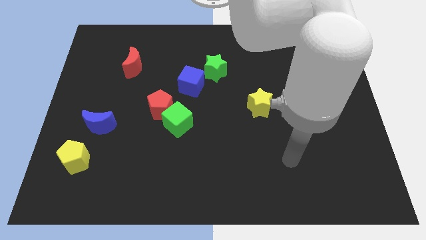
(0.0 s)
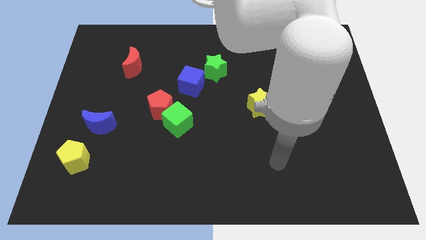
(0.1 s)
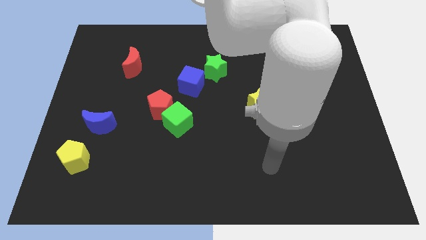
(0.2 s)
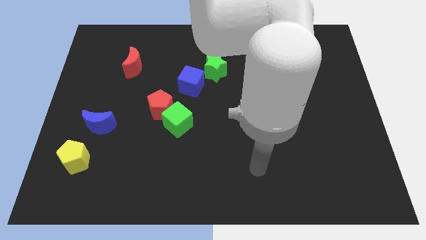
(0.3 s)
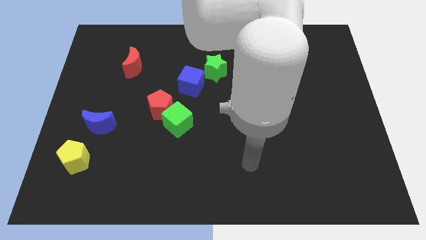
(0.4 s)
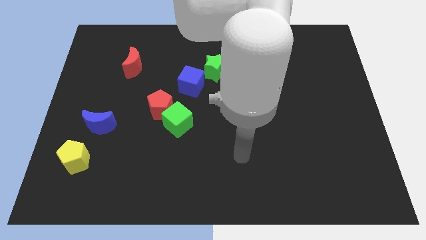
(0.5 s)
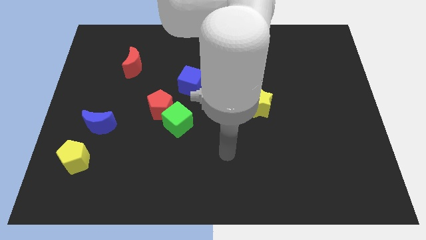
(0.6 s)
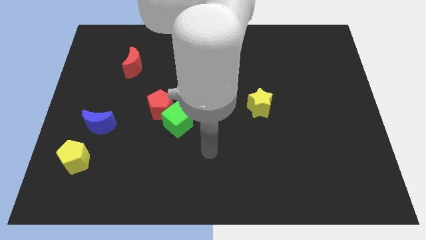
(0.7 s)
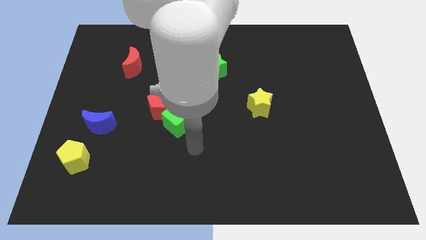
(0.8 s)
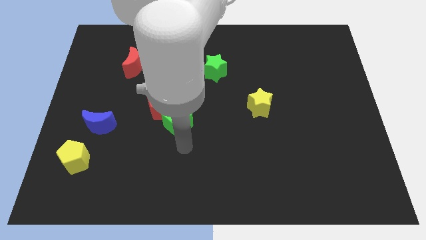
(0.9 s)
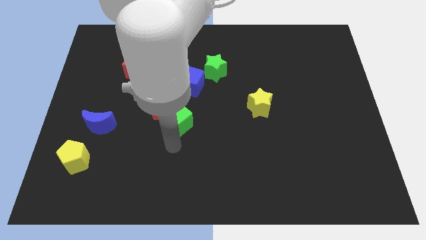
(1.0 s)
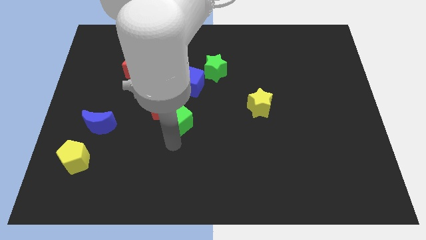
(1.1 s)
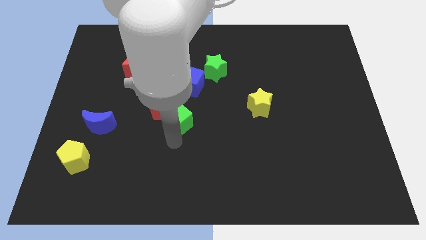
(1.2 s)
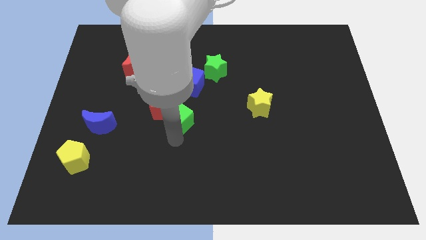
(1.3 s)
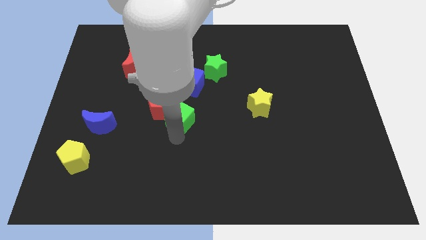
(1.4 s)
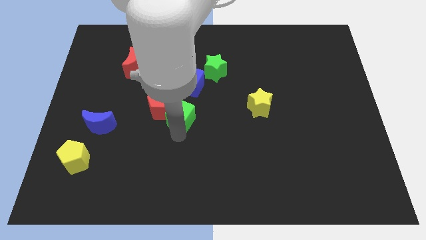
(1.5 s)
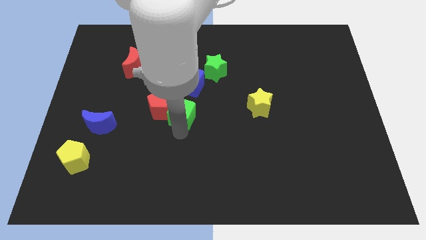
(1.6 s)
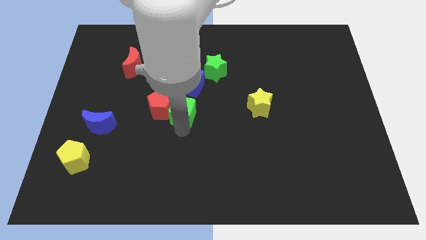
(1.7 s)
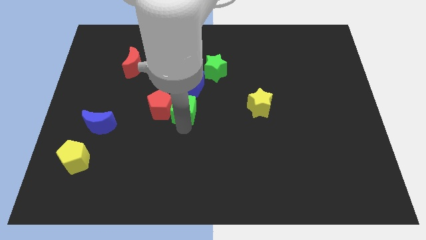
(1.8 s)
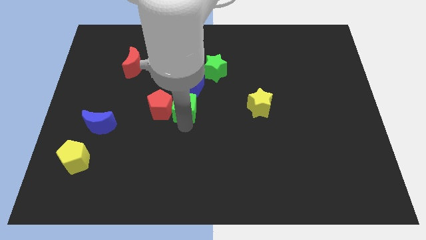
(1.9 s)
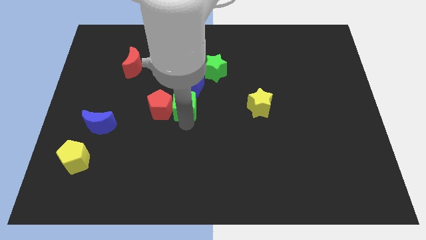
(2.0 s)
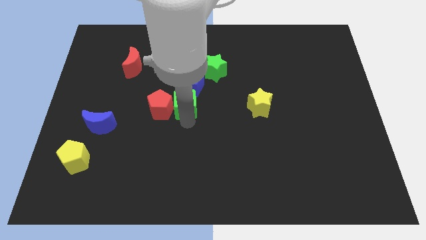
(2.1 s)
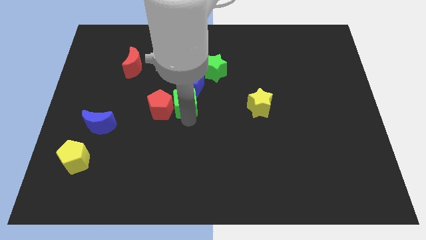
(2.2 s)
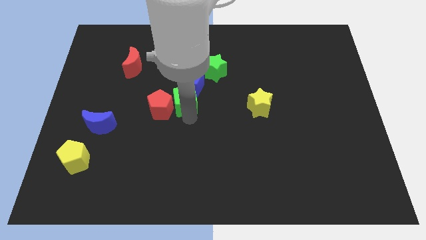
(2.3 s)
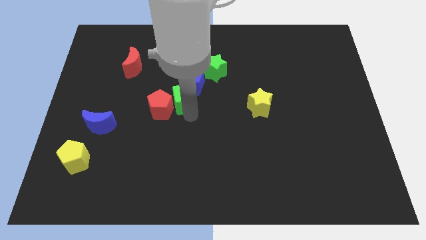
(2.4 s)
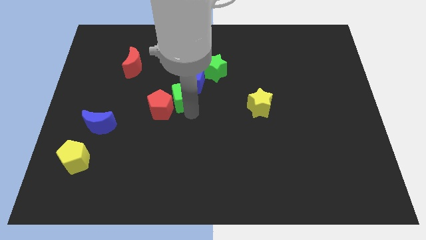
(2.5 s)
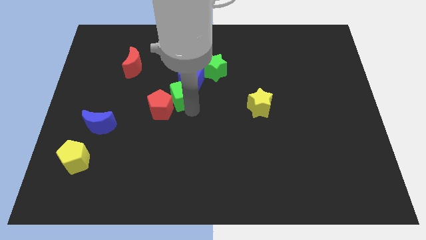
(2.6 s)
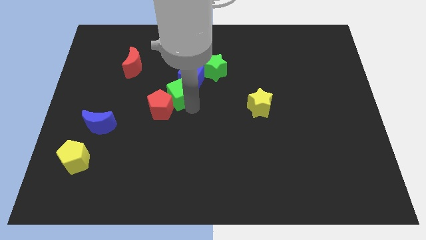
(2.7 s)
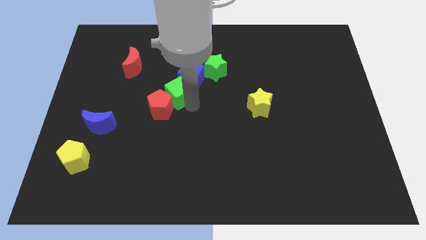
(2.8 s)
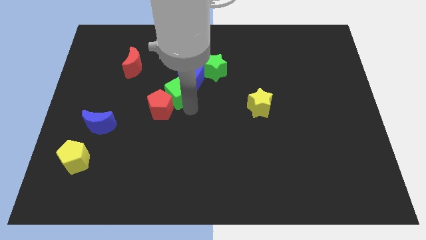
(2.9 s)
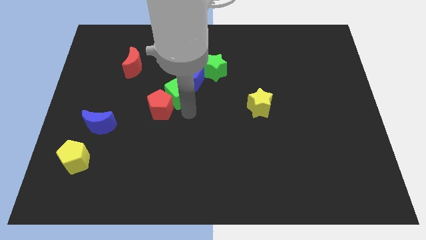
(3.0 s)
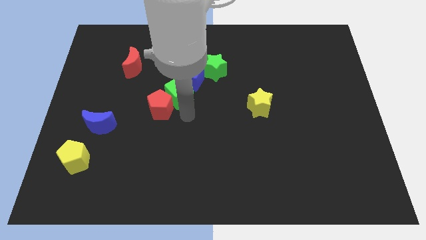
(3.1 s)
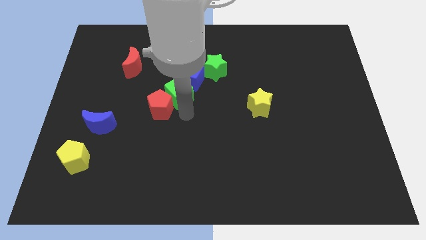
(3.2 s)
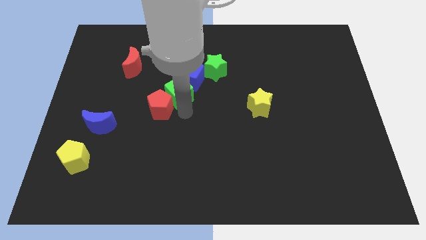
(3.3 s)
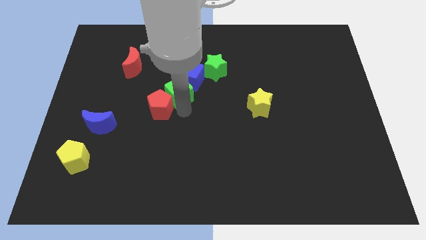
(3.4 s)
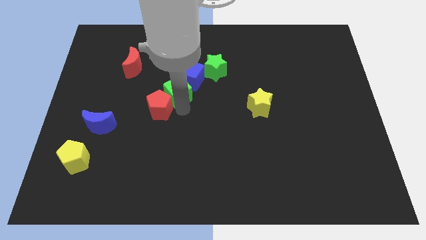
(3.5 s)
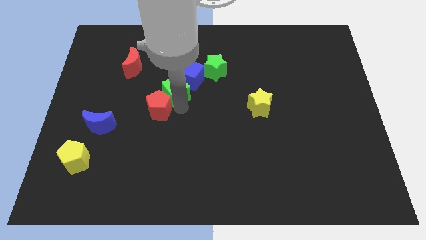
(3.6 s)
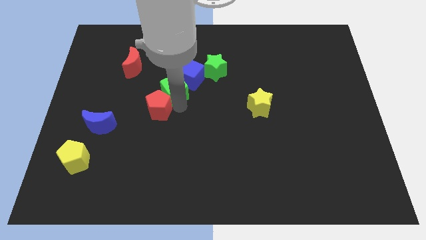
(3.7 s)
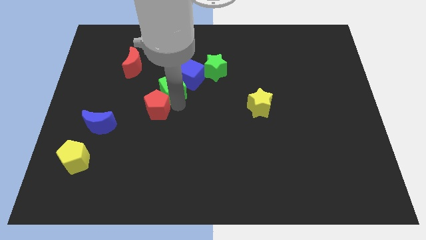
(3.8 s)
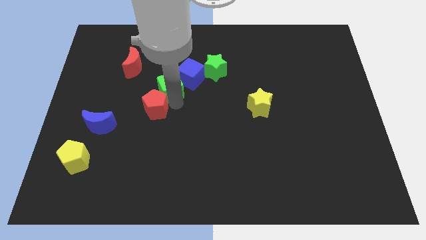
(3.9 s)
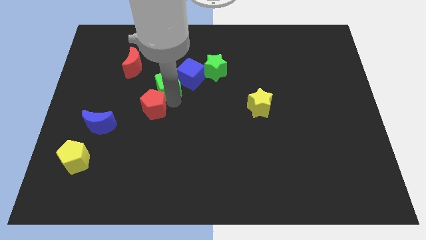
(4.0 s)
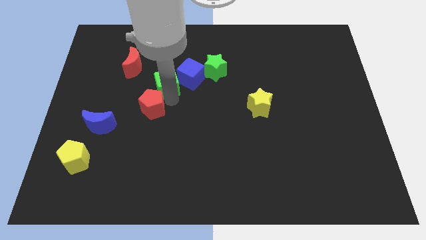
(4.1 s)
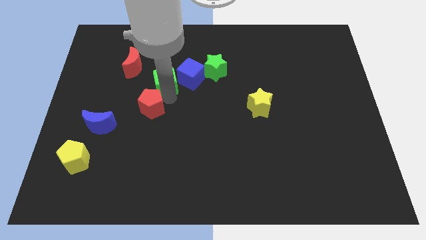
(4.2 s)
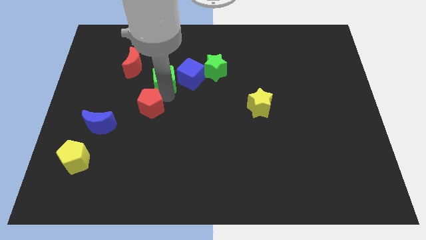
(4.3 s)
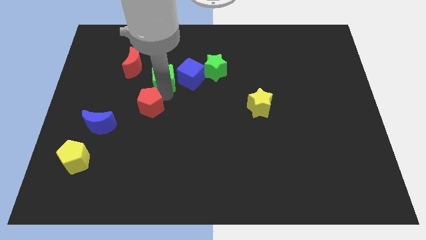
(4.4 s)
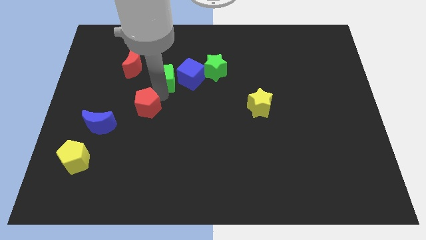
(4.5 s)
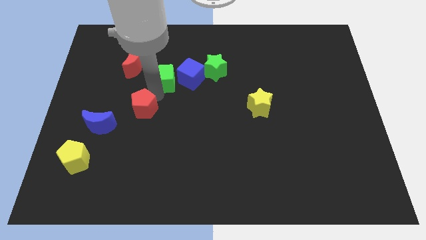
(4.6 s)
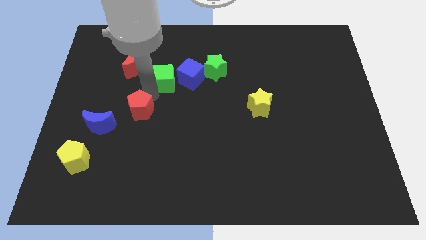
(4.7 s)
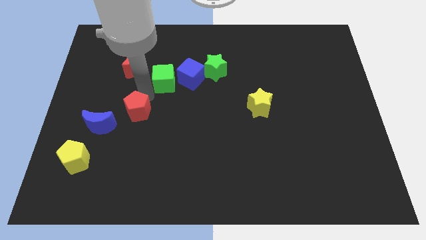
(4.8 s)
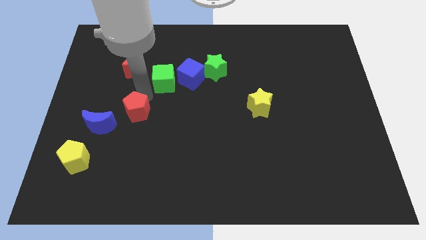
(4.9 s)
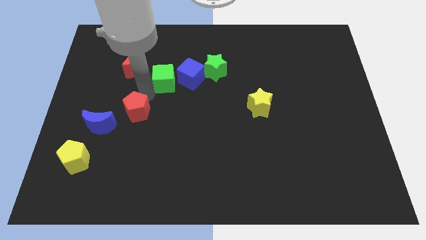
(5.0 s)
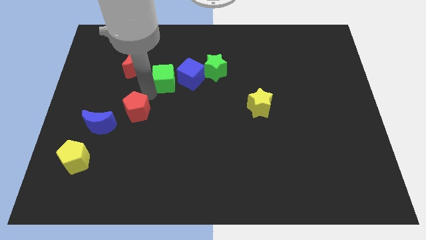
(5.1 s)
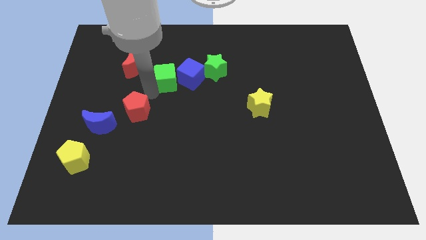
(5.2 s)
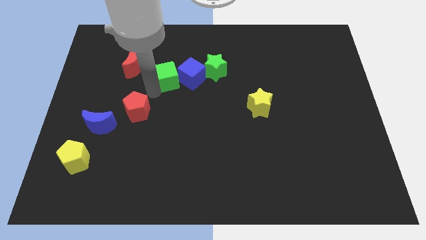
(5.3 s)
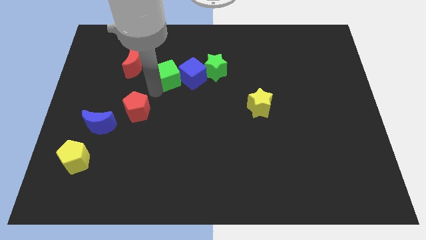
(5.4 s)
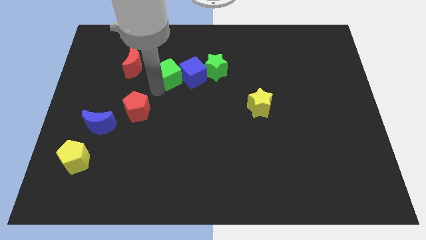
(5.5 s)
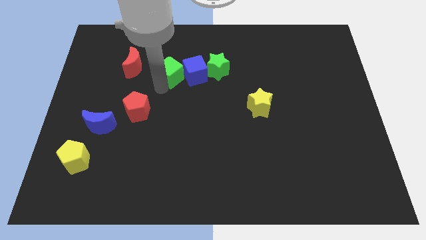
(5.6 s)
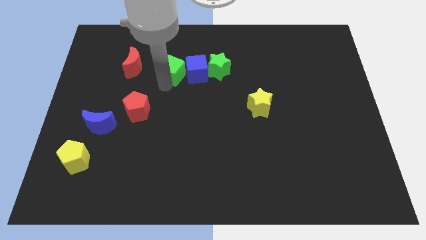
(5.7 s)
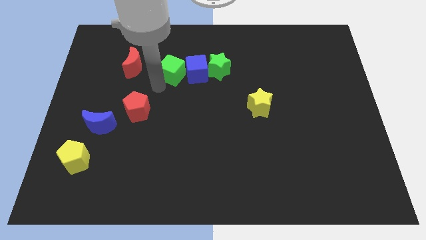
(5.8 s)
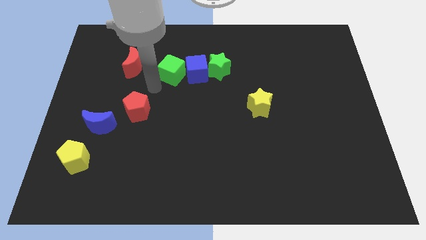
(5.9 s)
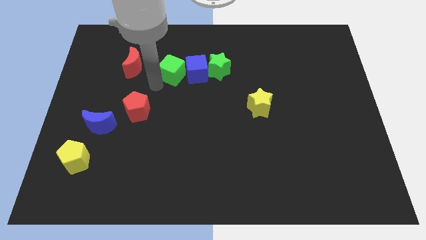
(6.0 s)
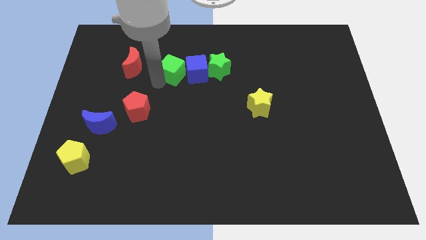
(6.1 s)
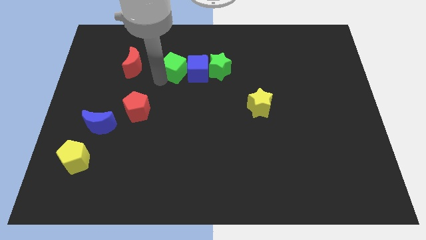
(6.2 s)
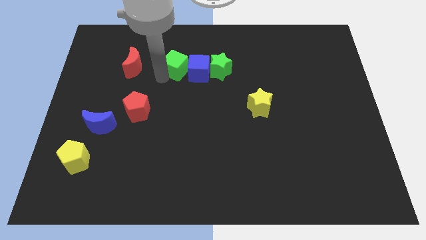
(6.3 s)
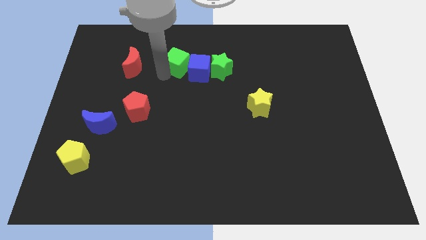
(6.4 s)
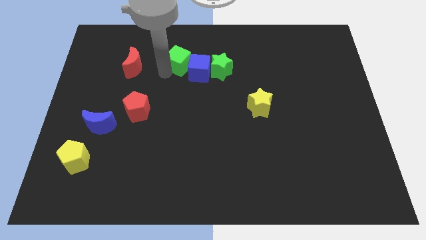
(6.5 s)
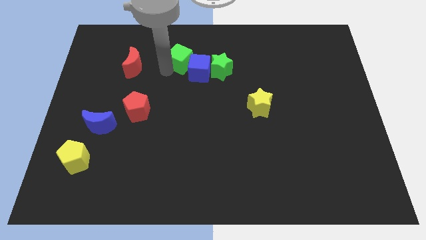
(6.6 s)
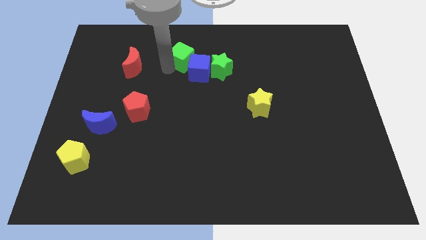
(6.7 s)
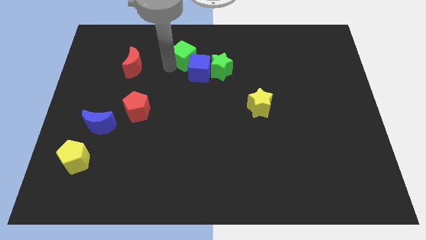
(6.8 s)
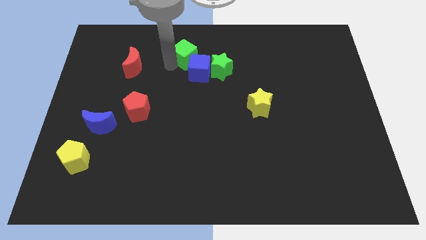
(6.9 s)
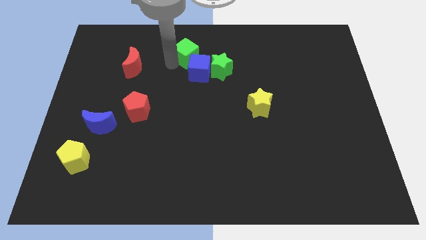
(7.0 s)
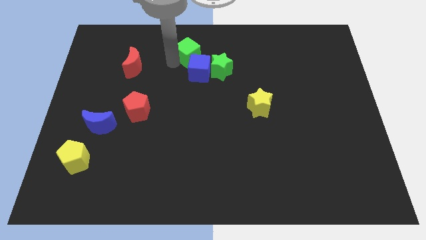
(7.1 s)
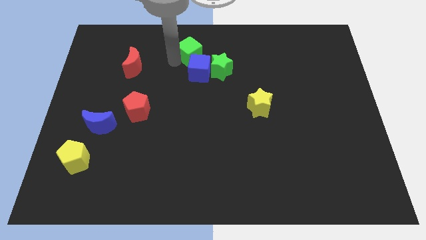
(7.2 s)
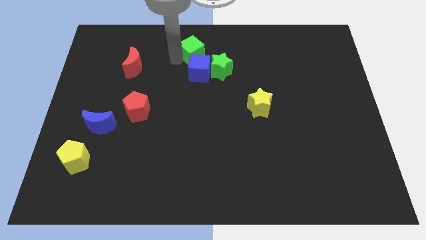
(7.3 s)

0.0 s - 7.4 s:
slide the green cube to the towards your base
